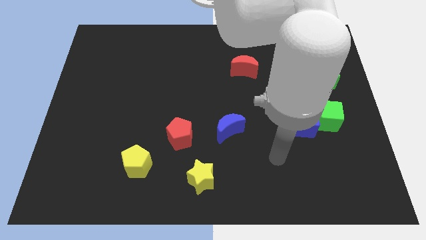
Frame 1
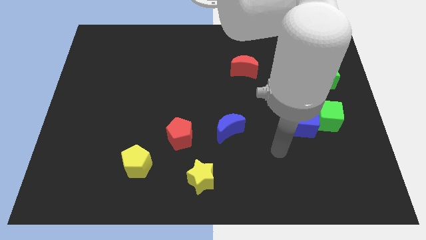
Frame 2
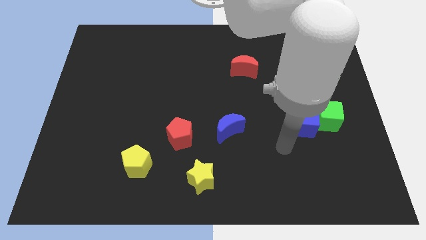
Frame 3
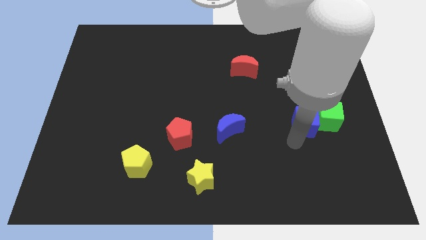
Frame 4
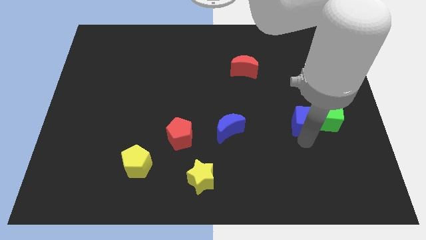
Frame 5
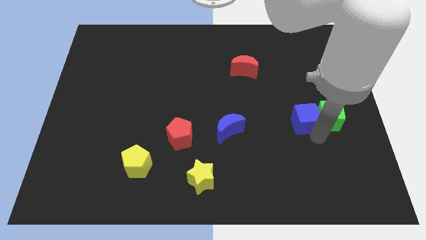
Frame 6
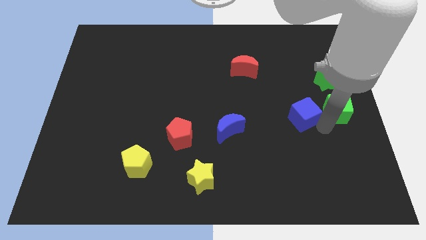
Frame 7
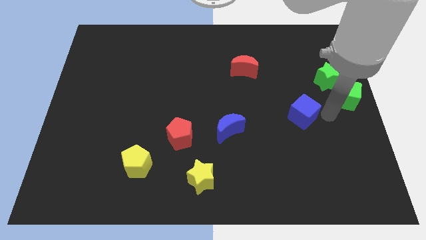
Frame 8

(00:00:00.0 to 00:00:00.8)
move the blue cube away from the green cube

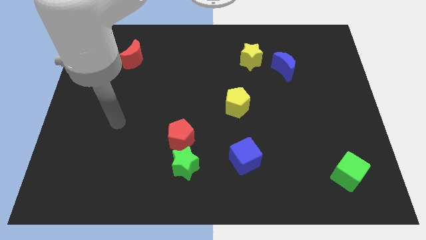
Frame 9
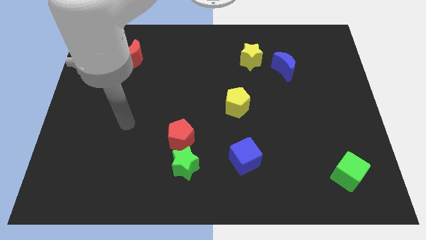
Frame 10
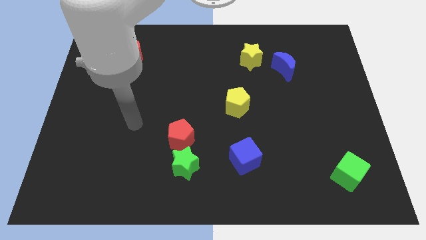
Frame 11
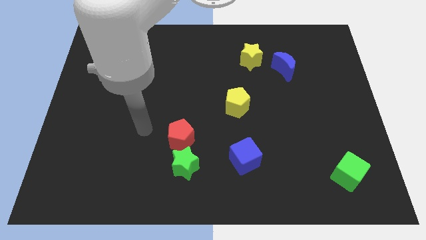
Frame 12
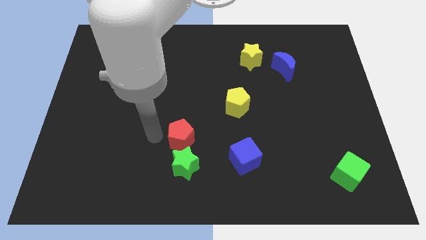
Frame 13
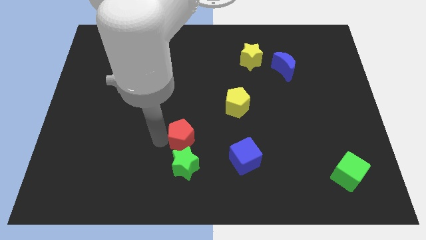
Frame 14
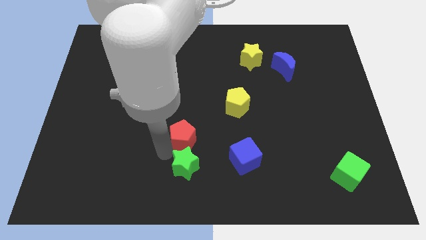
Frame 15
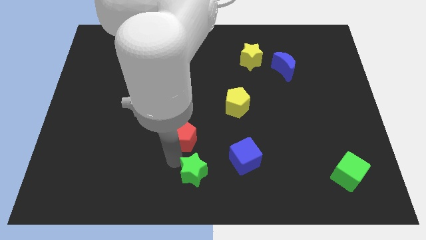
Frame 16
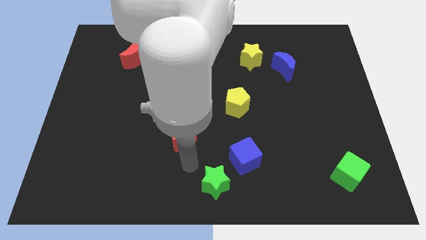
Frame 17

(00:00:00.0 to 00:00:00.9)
separate the red pentagon from the green star

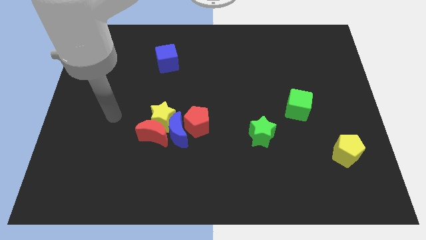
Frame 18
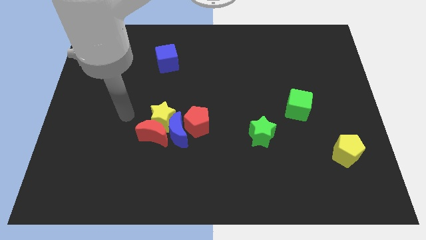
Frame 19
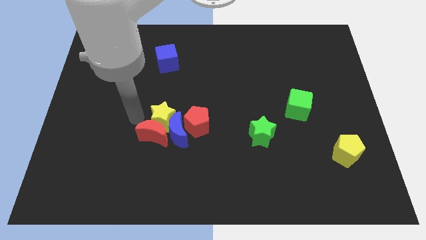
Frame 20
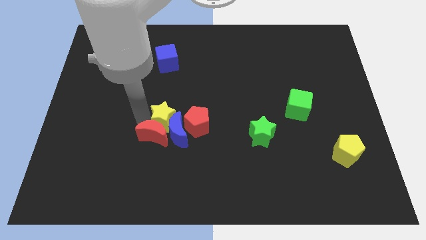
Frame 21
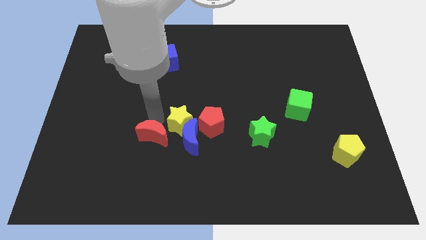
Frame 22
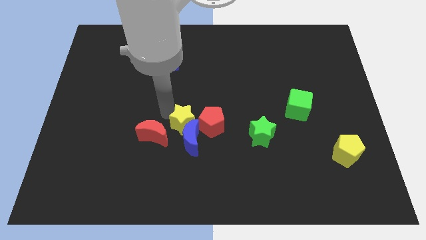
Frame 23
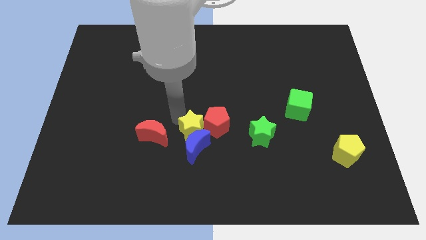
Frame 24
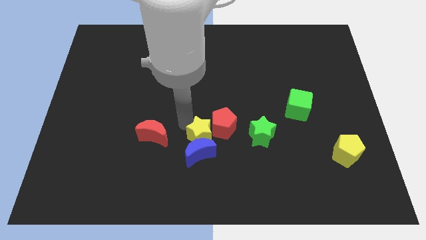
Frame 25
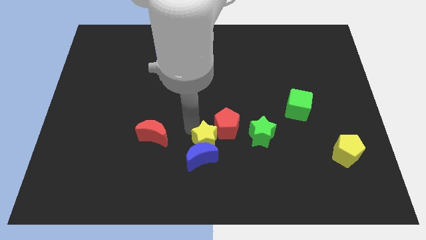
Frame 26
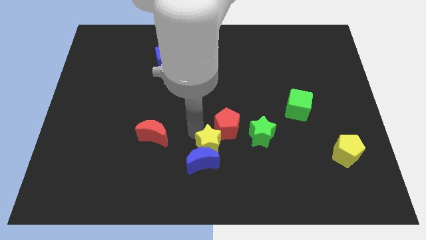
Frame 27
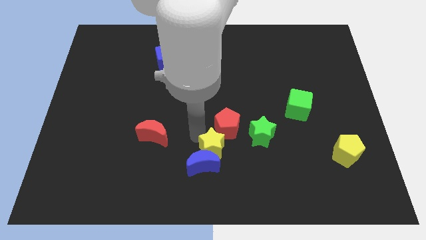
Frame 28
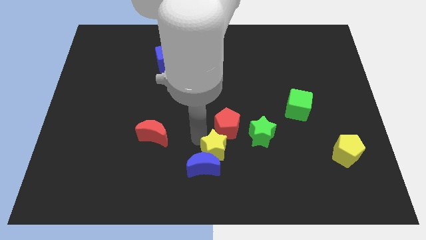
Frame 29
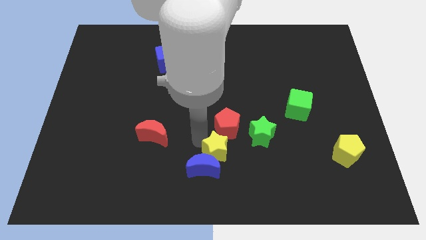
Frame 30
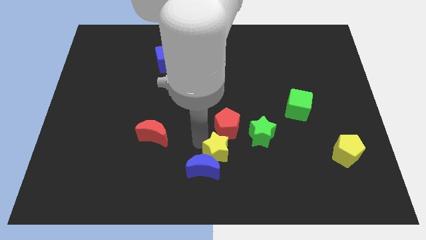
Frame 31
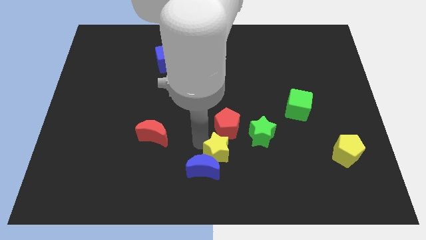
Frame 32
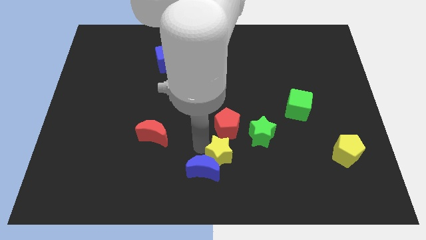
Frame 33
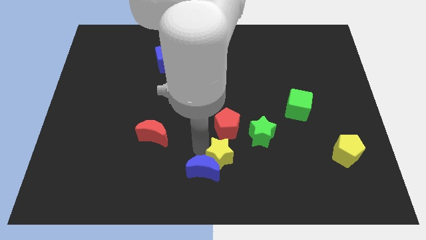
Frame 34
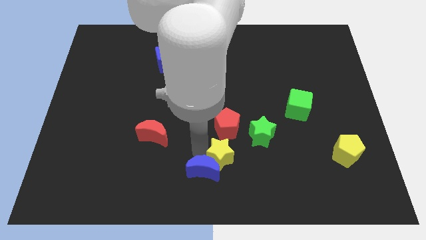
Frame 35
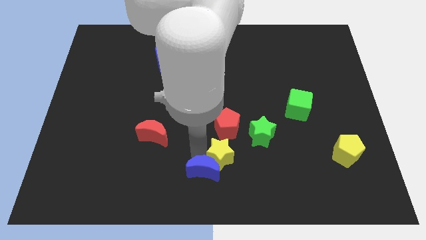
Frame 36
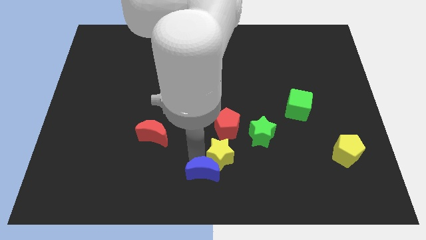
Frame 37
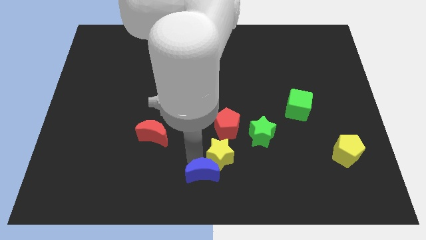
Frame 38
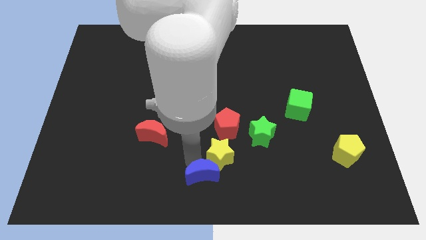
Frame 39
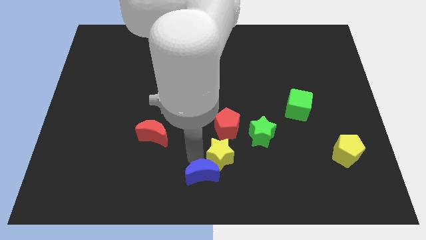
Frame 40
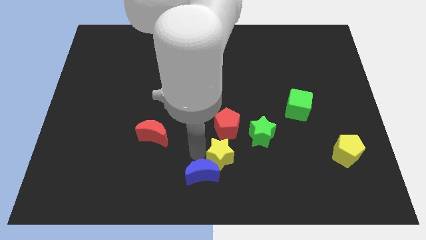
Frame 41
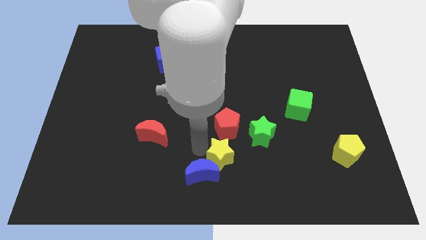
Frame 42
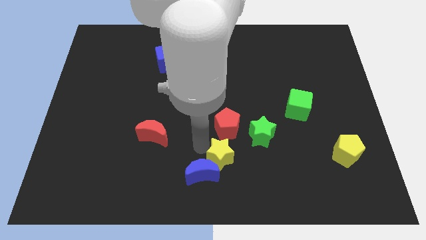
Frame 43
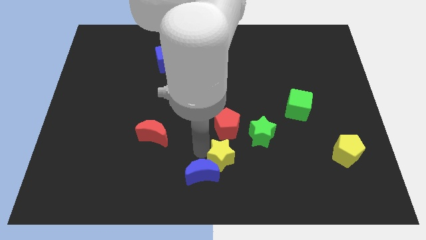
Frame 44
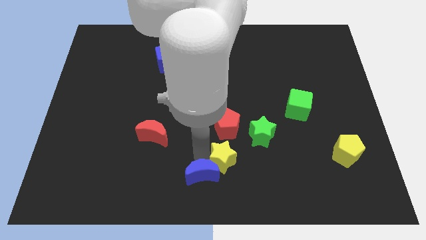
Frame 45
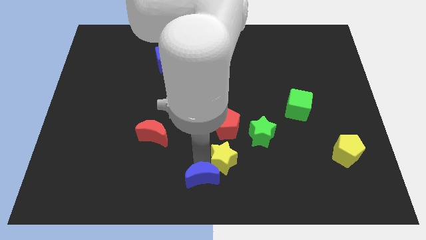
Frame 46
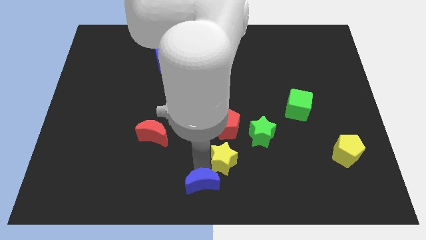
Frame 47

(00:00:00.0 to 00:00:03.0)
pull the blue moon apart from the red pentagon, red moon, and yellow star

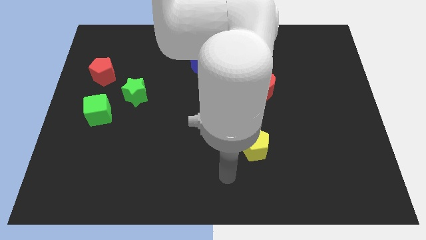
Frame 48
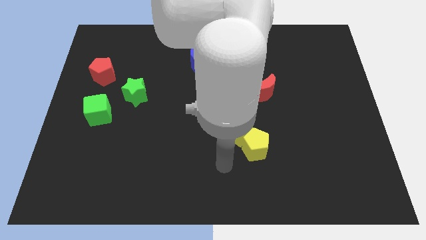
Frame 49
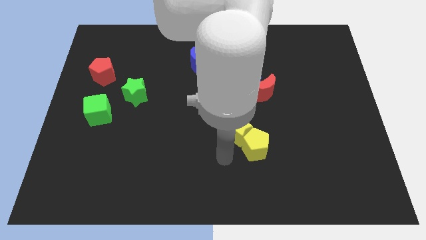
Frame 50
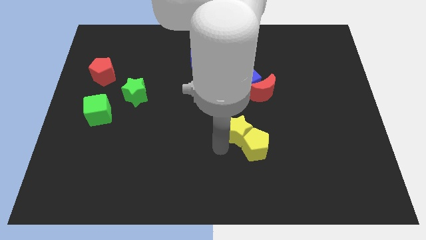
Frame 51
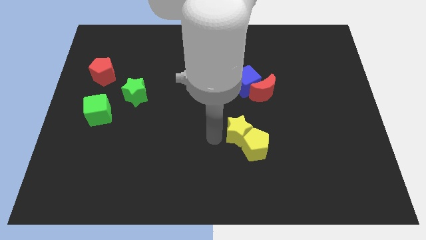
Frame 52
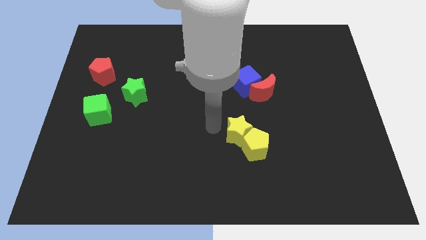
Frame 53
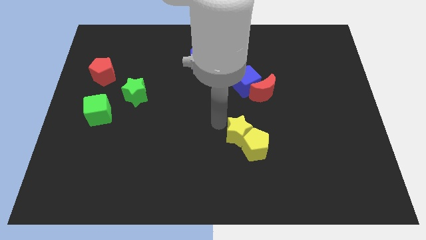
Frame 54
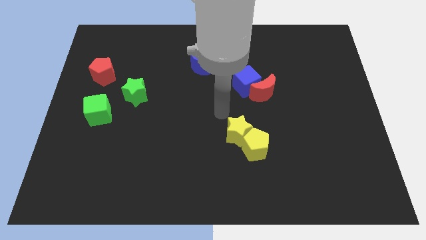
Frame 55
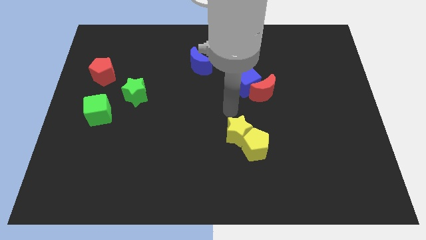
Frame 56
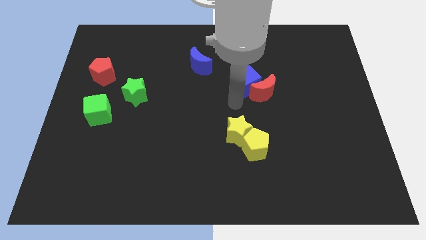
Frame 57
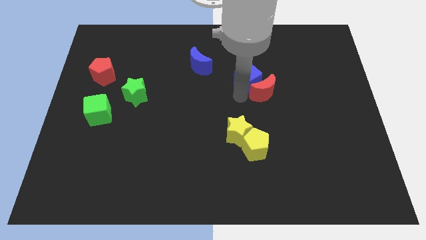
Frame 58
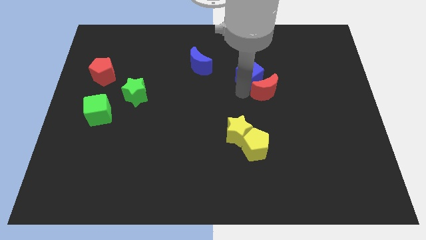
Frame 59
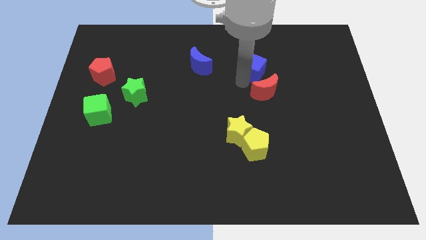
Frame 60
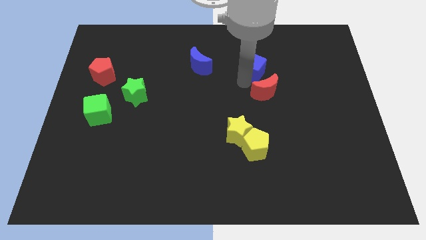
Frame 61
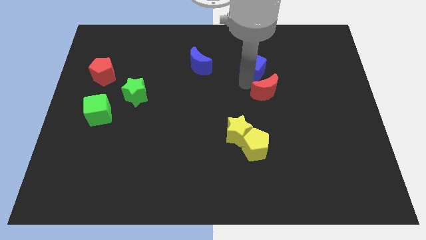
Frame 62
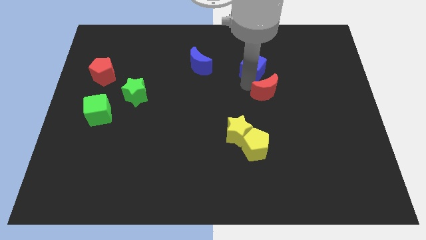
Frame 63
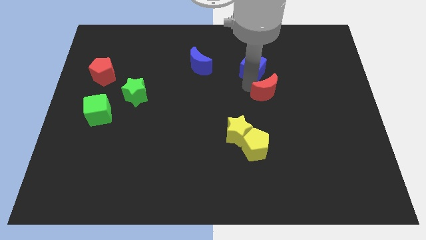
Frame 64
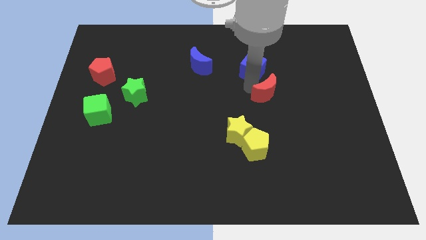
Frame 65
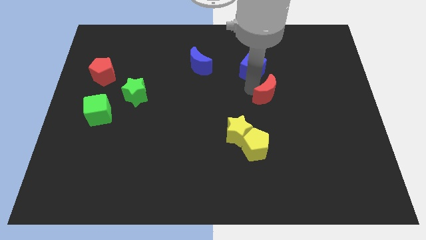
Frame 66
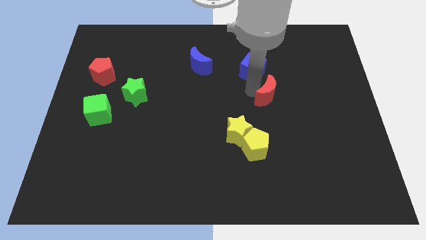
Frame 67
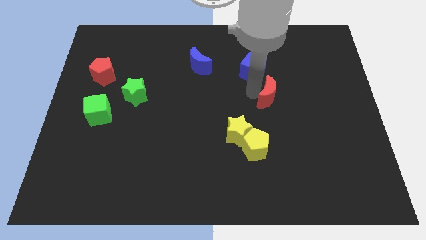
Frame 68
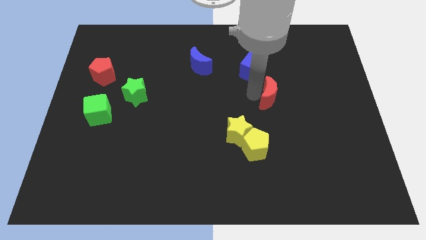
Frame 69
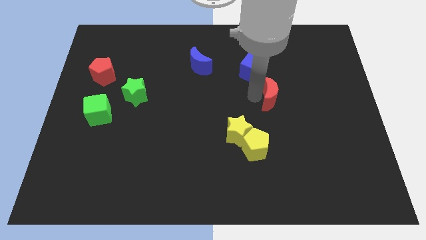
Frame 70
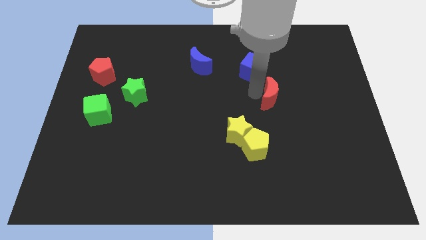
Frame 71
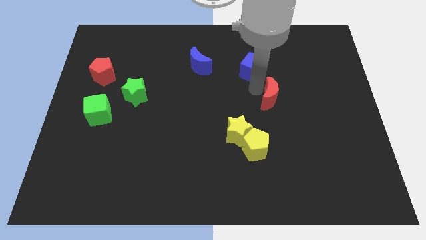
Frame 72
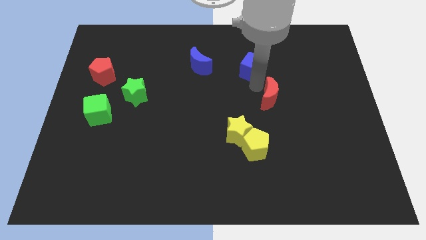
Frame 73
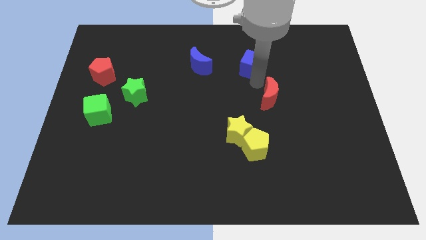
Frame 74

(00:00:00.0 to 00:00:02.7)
move the red moon away from the blue cube

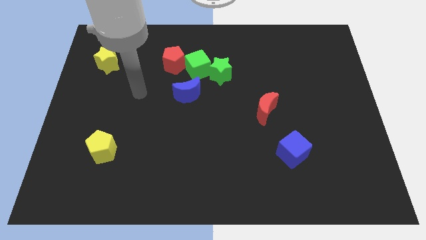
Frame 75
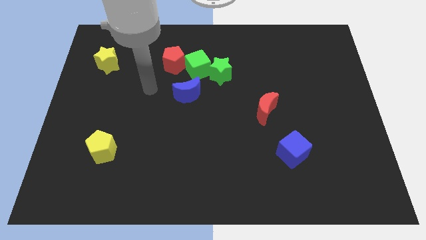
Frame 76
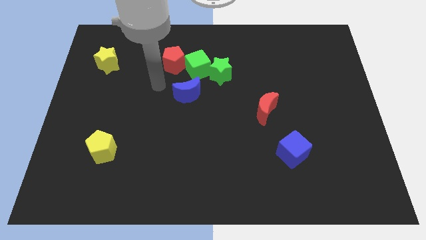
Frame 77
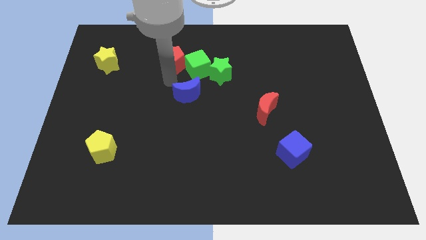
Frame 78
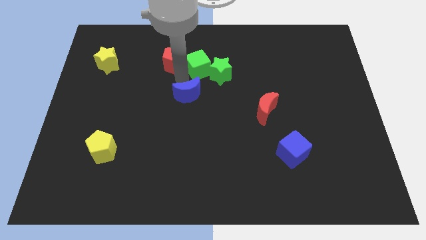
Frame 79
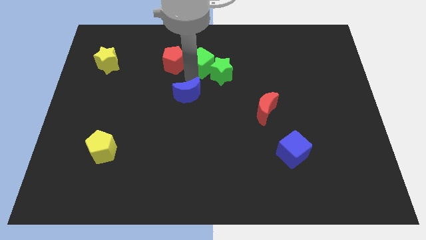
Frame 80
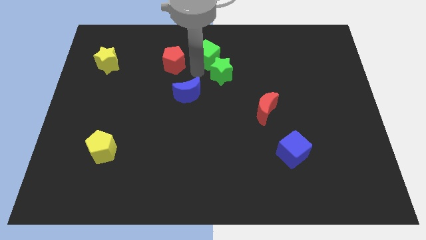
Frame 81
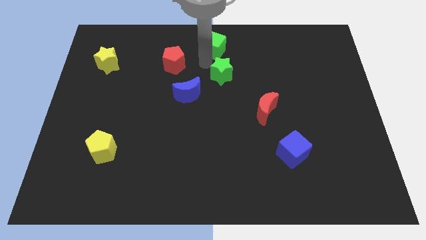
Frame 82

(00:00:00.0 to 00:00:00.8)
move the green star away from the green cube

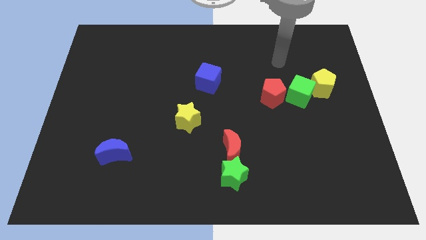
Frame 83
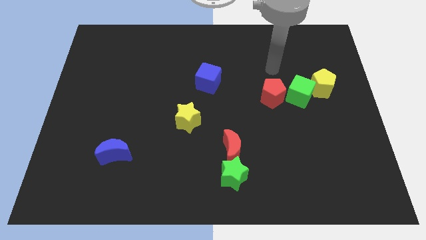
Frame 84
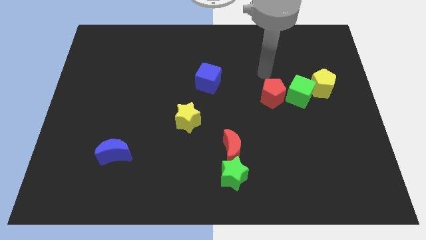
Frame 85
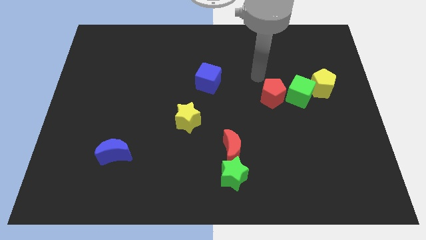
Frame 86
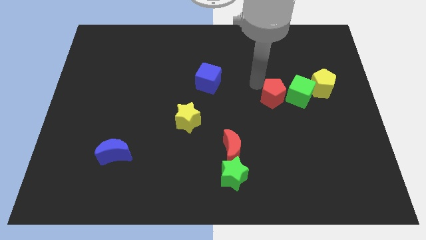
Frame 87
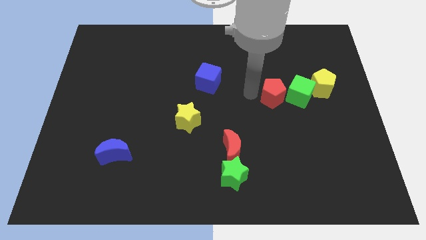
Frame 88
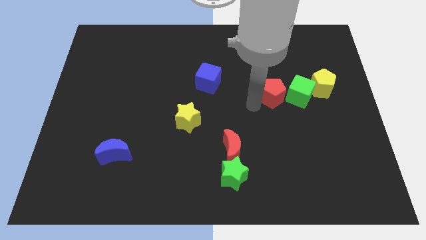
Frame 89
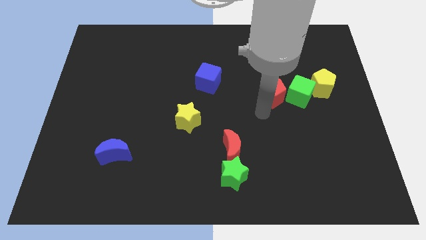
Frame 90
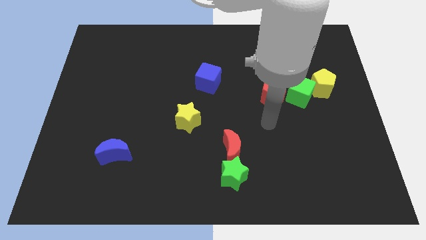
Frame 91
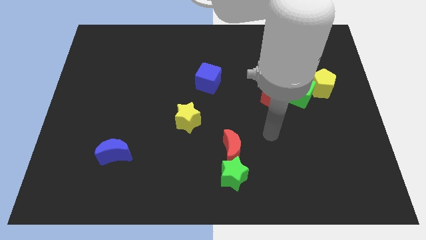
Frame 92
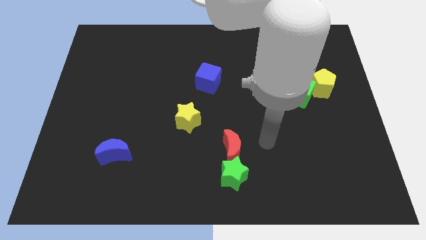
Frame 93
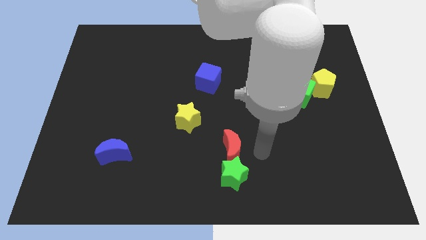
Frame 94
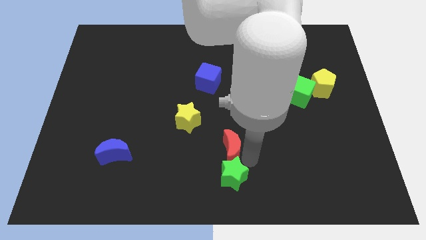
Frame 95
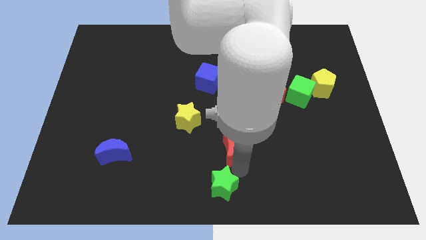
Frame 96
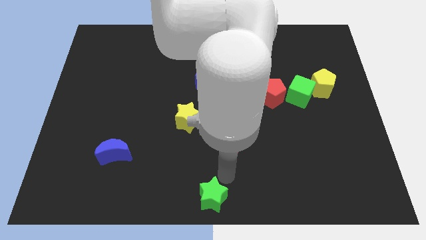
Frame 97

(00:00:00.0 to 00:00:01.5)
pull the red moon apart from the green star
